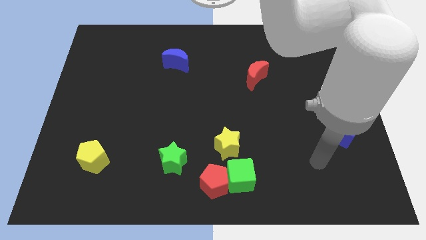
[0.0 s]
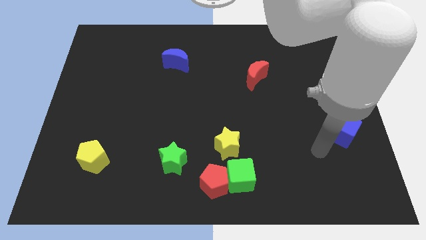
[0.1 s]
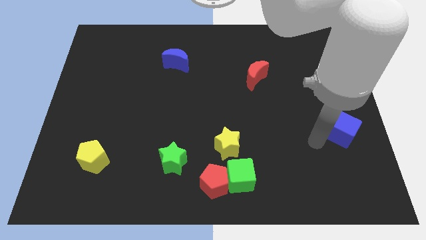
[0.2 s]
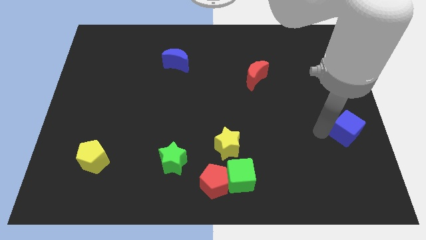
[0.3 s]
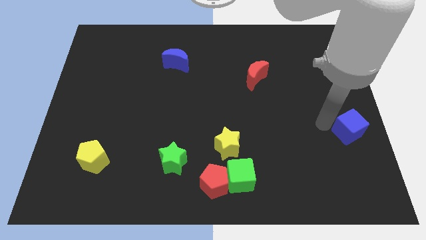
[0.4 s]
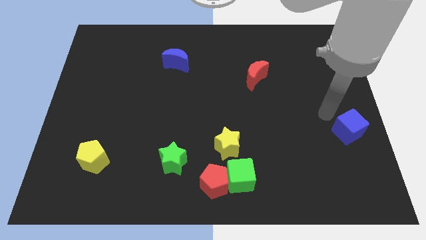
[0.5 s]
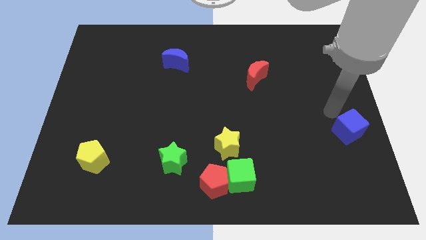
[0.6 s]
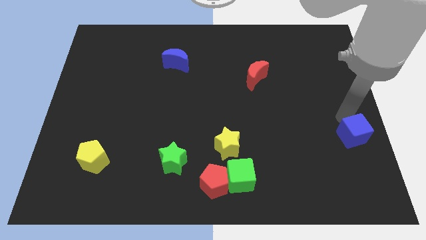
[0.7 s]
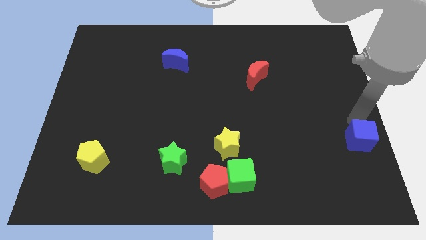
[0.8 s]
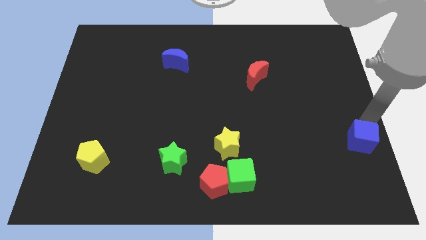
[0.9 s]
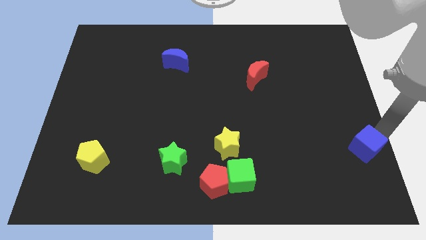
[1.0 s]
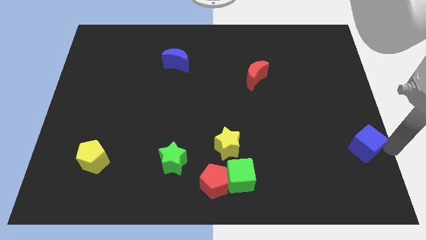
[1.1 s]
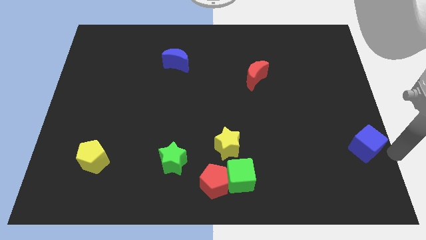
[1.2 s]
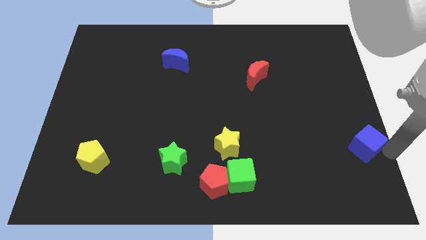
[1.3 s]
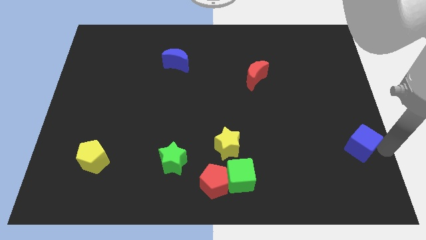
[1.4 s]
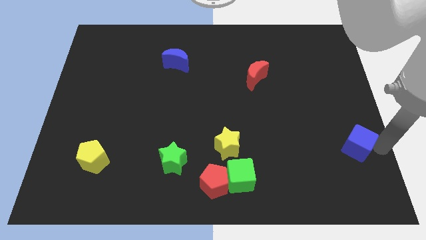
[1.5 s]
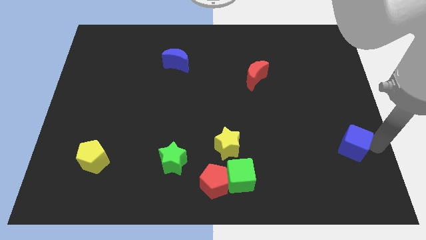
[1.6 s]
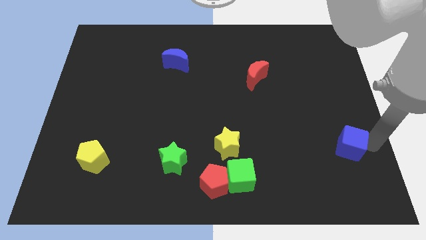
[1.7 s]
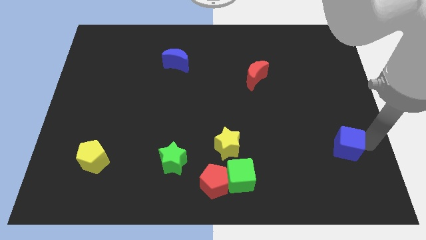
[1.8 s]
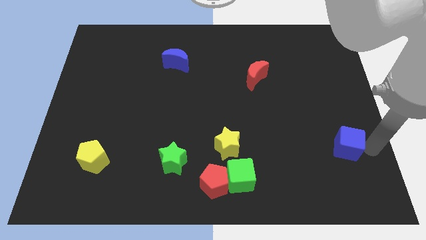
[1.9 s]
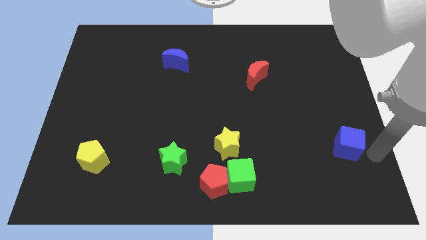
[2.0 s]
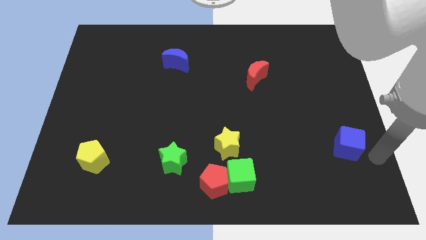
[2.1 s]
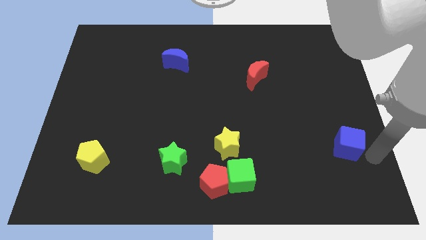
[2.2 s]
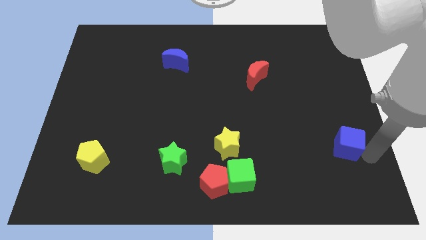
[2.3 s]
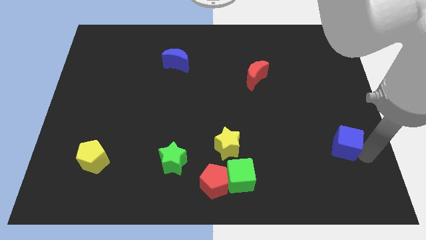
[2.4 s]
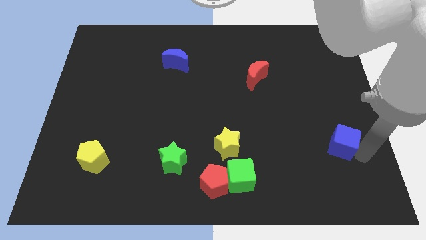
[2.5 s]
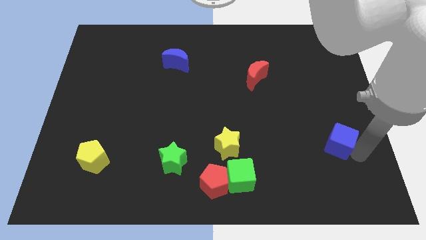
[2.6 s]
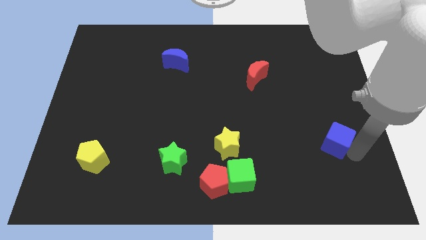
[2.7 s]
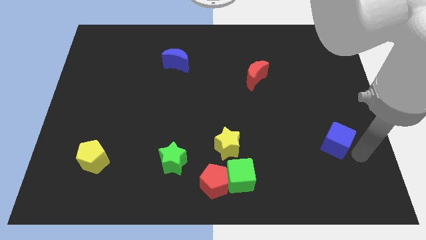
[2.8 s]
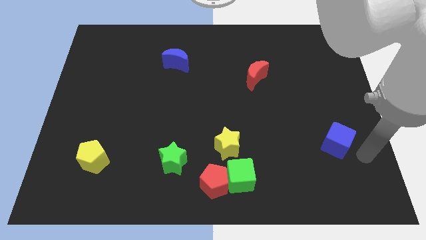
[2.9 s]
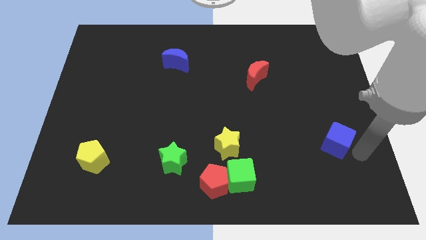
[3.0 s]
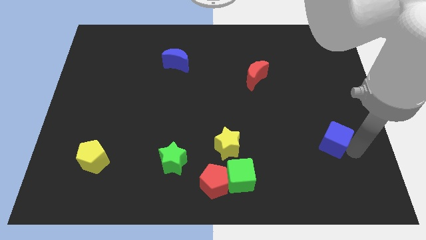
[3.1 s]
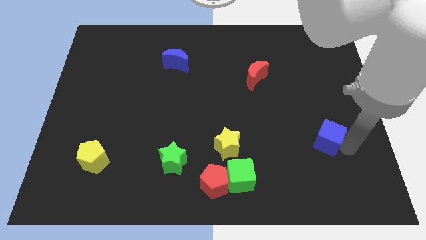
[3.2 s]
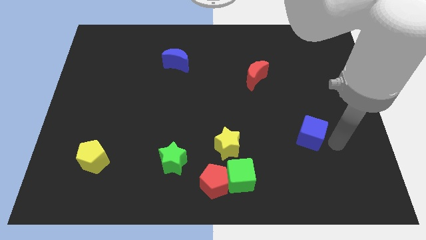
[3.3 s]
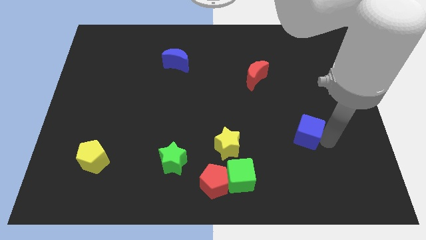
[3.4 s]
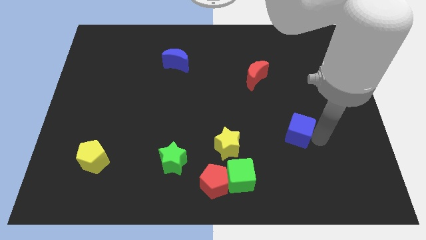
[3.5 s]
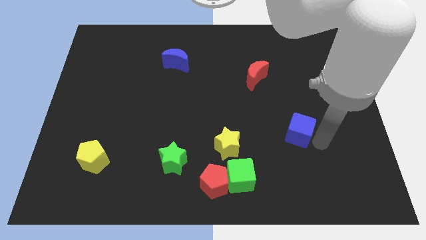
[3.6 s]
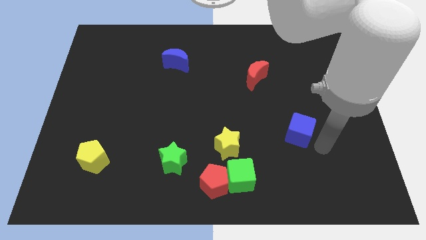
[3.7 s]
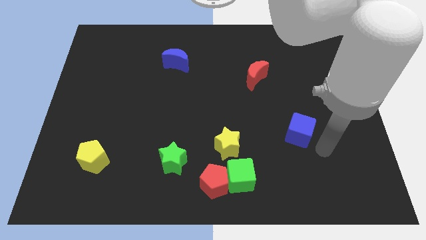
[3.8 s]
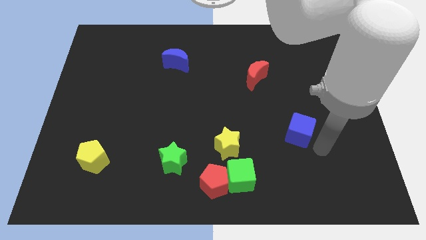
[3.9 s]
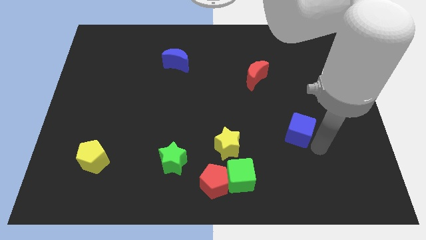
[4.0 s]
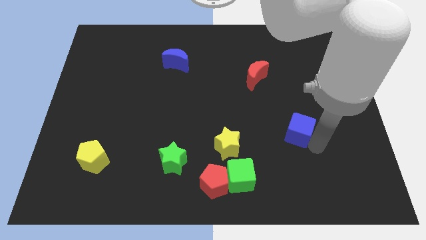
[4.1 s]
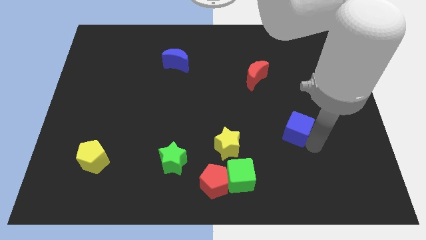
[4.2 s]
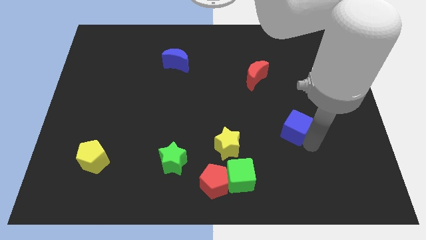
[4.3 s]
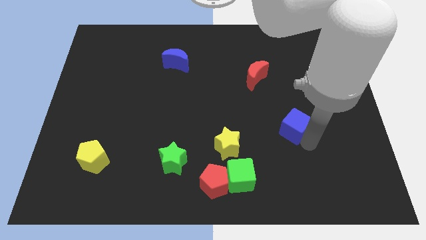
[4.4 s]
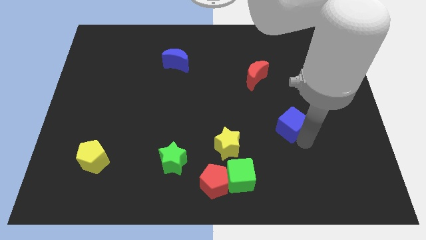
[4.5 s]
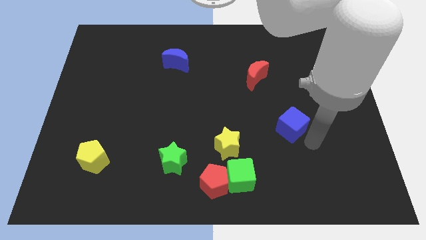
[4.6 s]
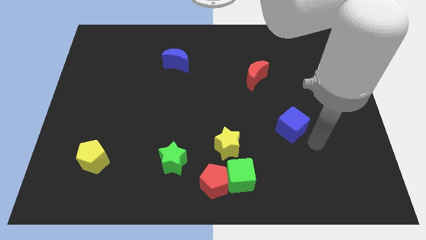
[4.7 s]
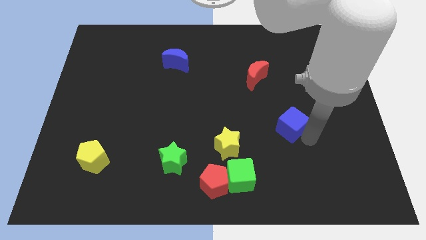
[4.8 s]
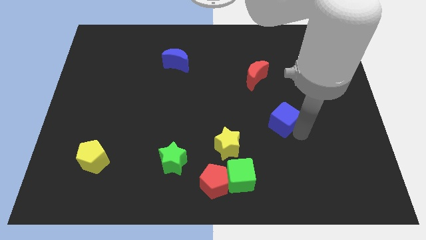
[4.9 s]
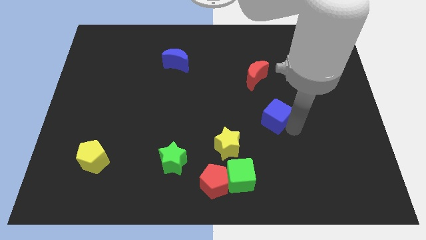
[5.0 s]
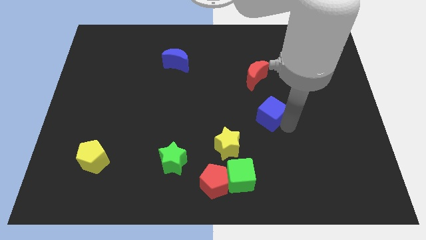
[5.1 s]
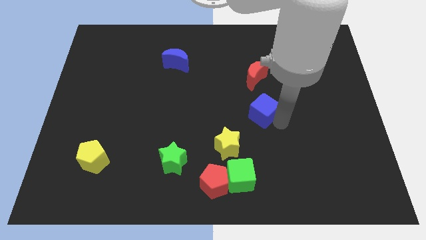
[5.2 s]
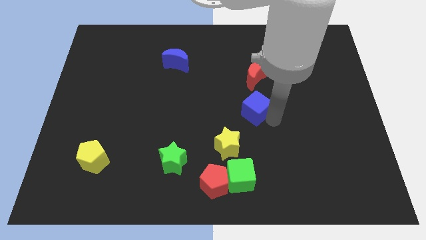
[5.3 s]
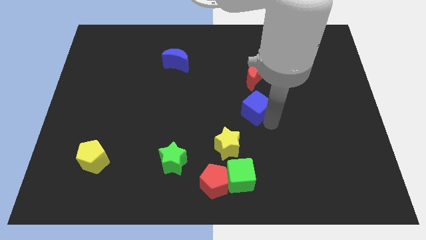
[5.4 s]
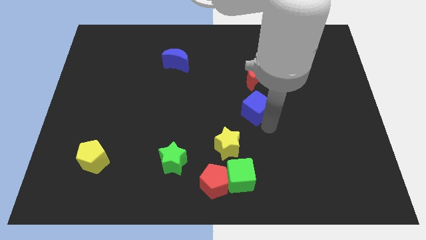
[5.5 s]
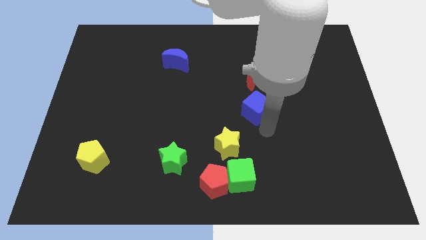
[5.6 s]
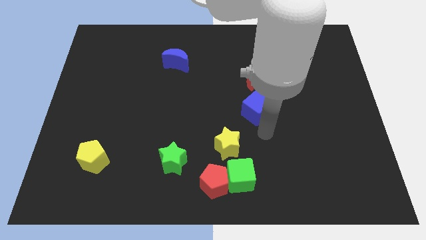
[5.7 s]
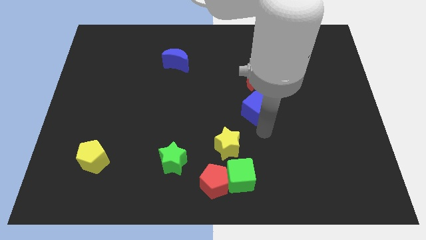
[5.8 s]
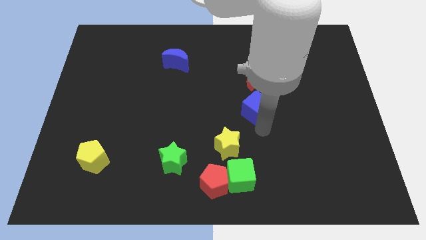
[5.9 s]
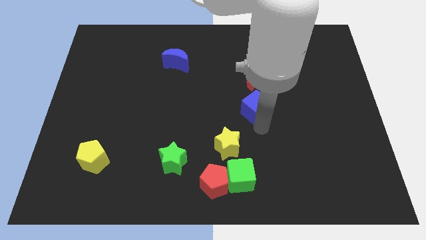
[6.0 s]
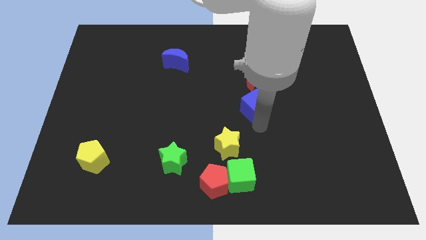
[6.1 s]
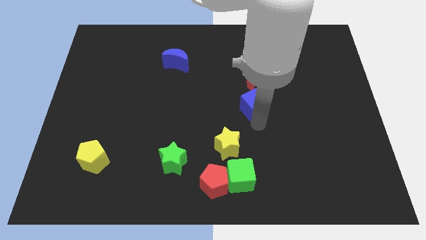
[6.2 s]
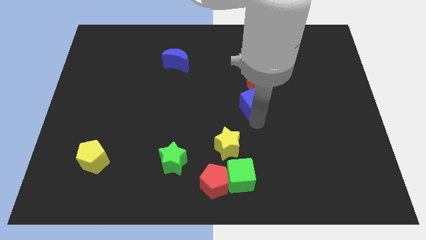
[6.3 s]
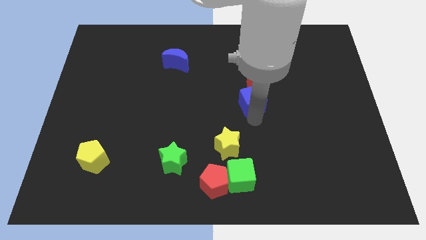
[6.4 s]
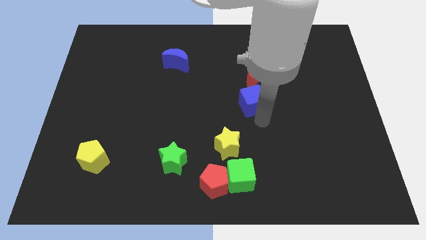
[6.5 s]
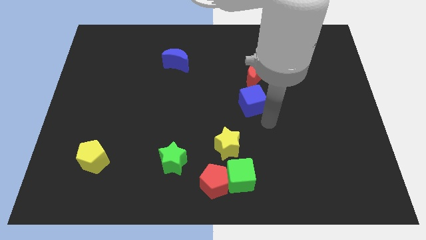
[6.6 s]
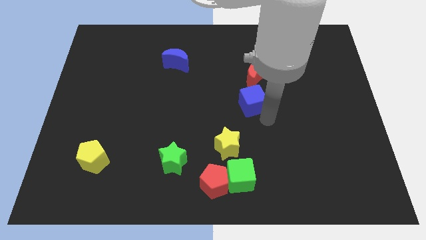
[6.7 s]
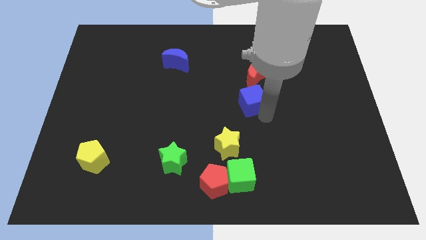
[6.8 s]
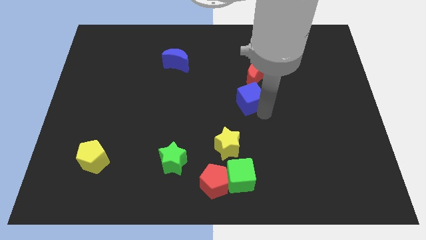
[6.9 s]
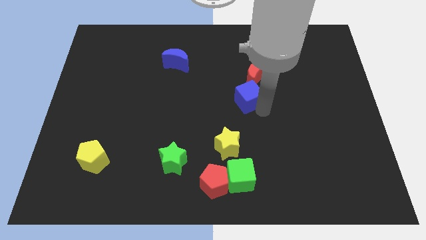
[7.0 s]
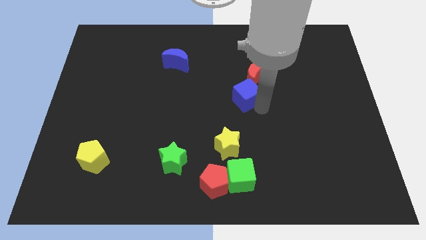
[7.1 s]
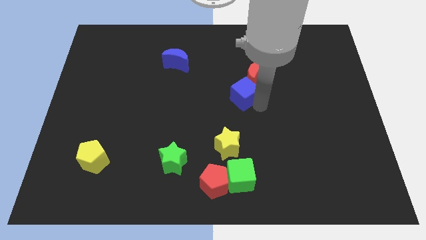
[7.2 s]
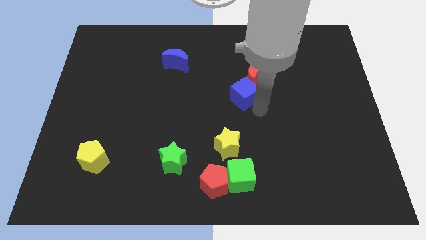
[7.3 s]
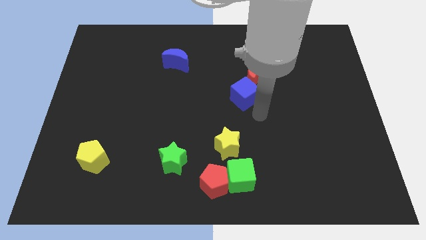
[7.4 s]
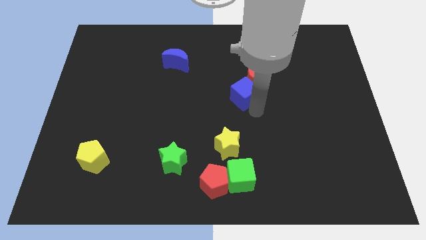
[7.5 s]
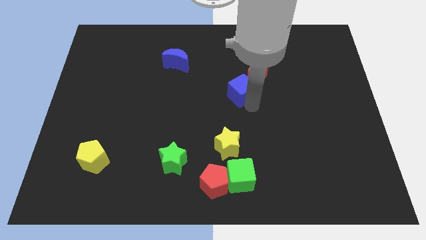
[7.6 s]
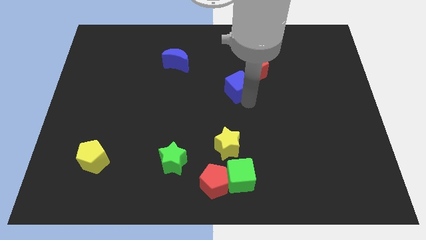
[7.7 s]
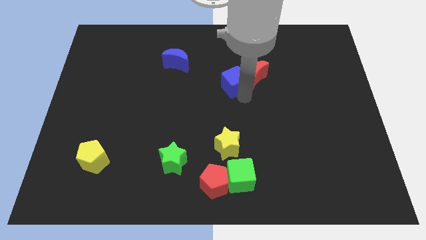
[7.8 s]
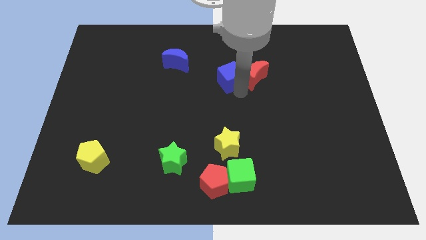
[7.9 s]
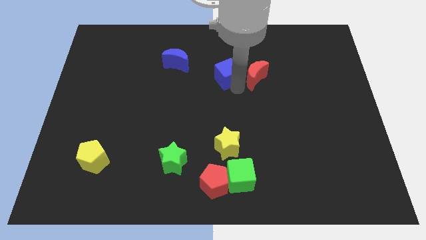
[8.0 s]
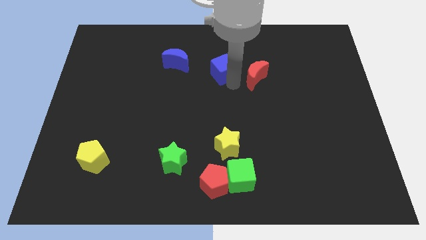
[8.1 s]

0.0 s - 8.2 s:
put the blue cube right of the blue moon
